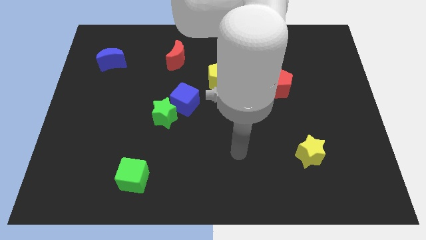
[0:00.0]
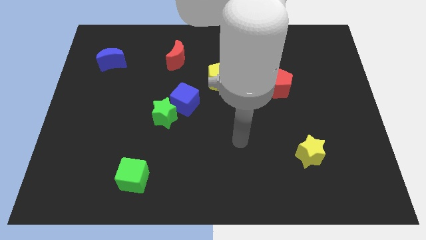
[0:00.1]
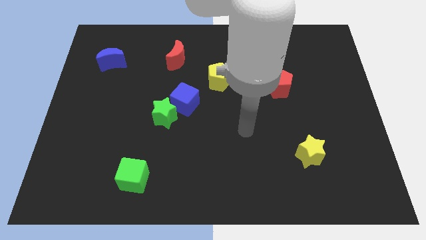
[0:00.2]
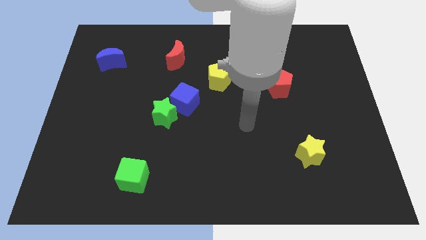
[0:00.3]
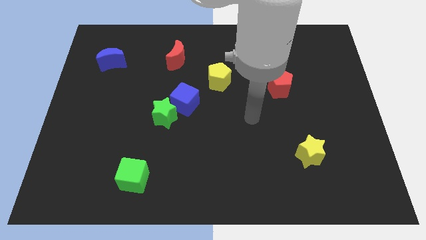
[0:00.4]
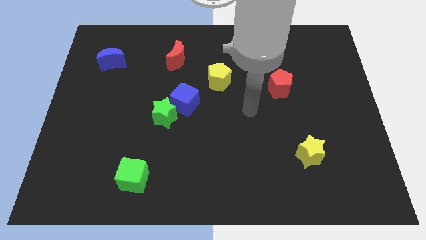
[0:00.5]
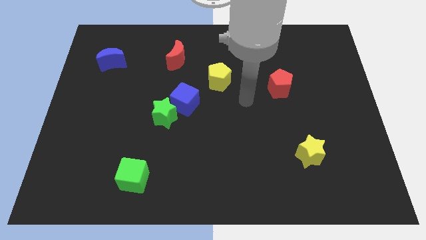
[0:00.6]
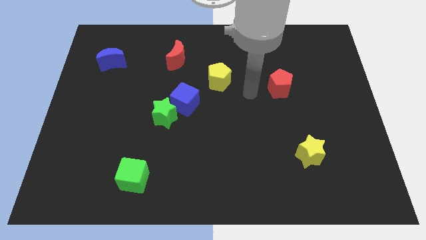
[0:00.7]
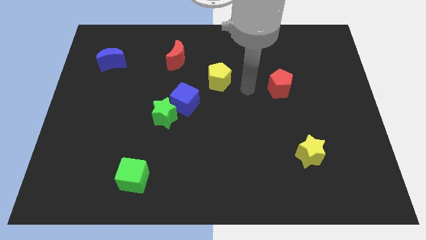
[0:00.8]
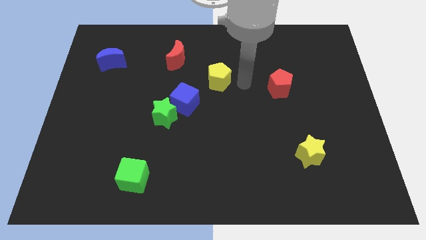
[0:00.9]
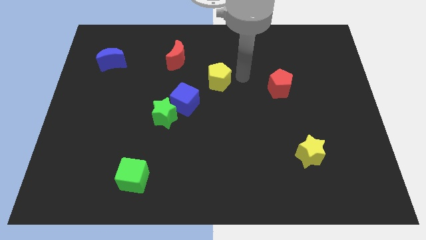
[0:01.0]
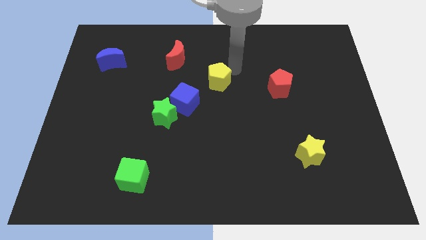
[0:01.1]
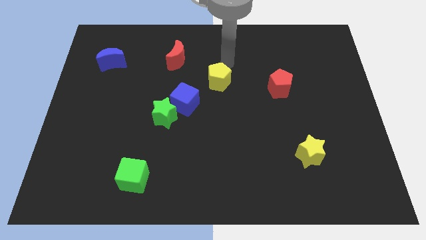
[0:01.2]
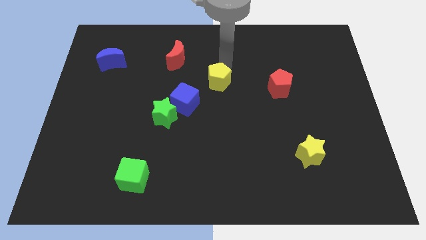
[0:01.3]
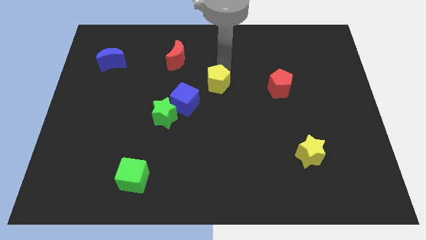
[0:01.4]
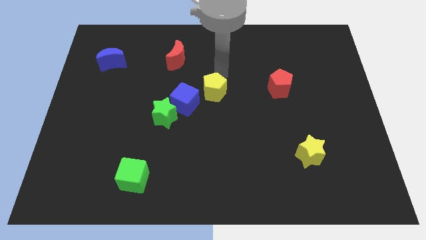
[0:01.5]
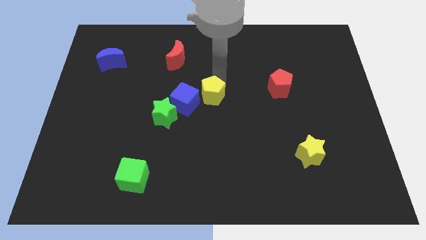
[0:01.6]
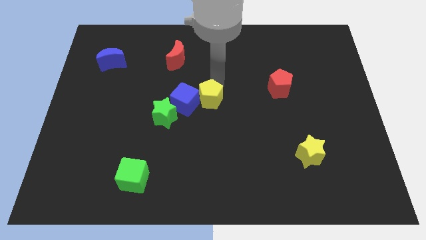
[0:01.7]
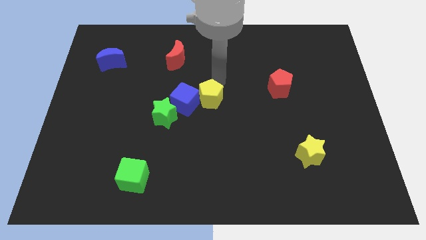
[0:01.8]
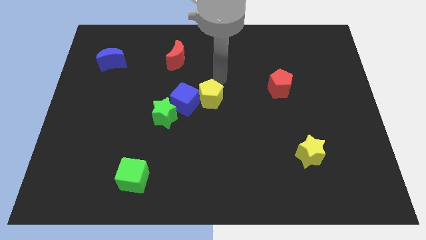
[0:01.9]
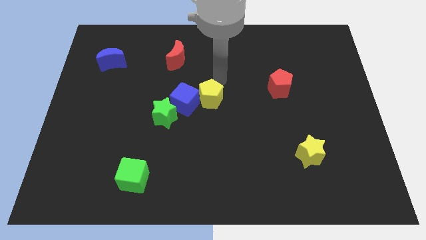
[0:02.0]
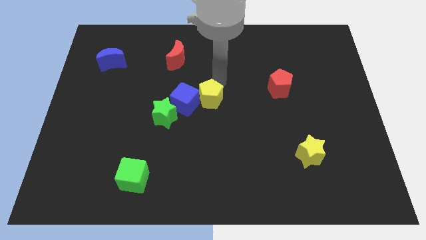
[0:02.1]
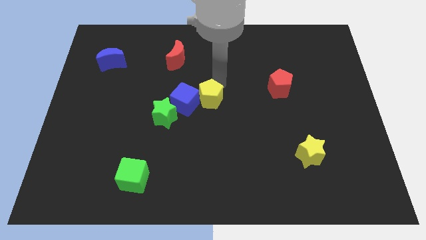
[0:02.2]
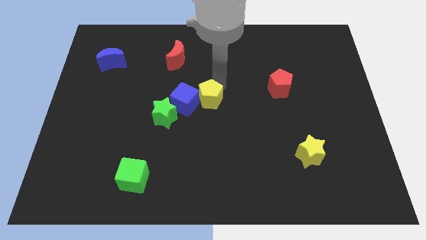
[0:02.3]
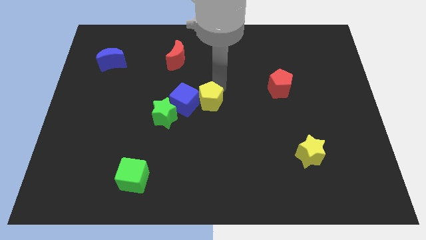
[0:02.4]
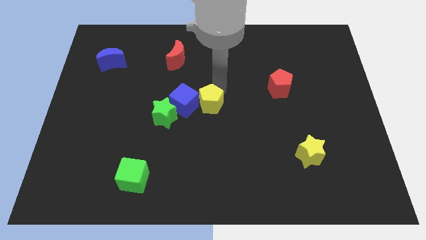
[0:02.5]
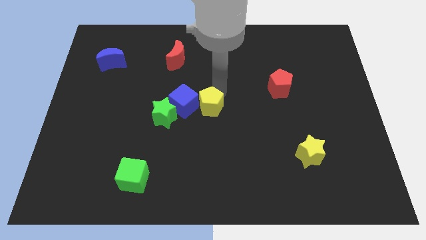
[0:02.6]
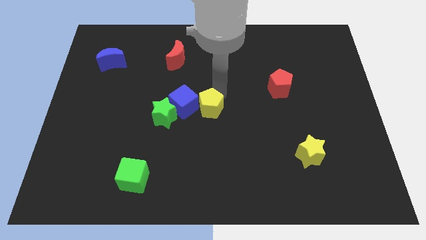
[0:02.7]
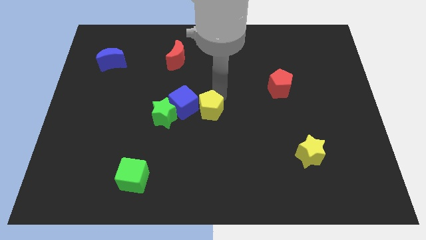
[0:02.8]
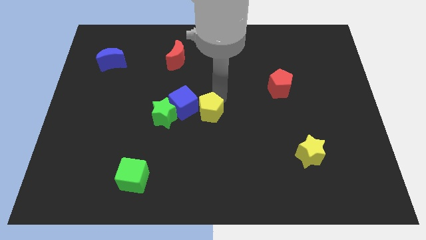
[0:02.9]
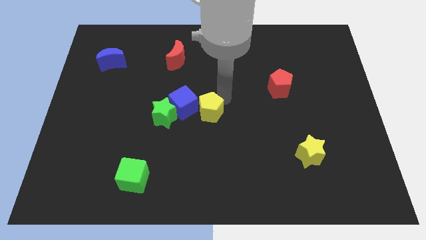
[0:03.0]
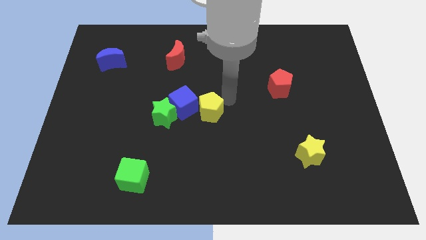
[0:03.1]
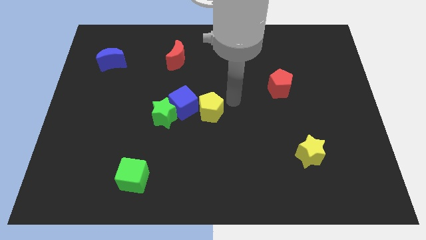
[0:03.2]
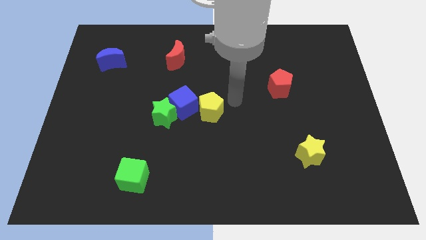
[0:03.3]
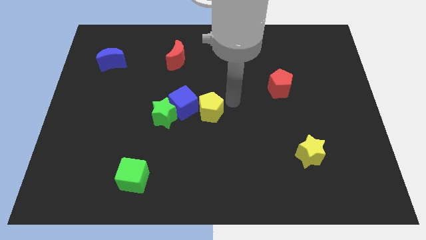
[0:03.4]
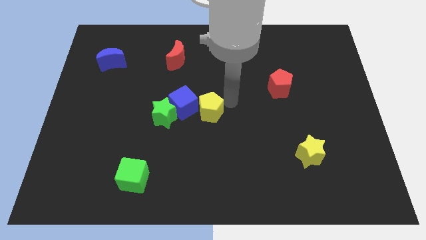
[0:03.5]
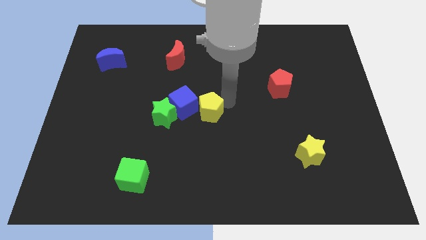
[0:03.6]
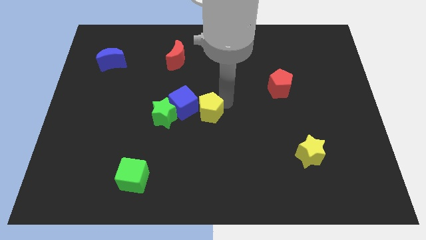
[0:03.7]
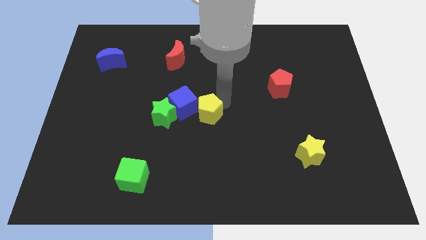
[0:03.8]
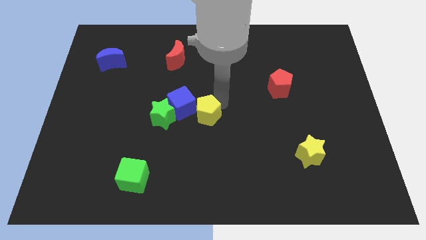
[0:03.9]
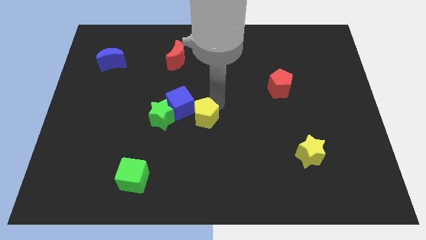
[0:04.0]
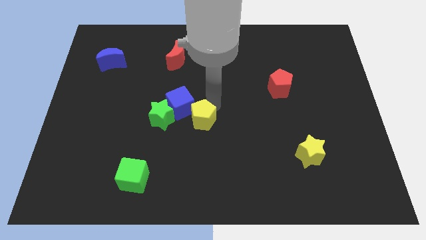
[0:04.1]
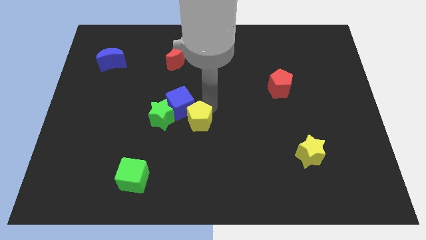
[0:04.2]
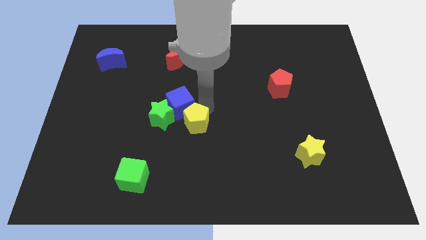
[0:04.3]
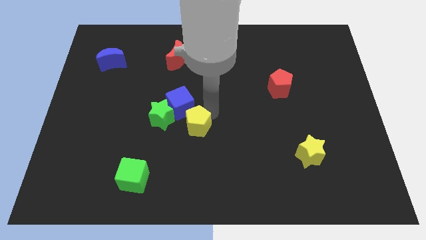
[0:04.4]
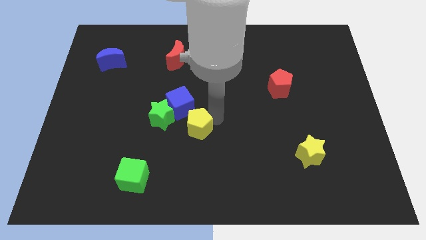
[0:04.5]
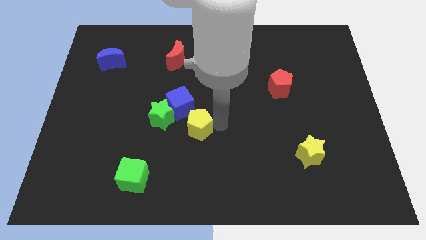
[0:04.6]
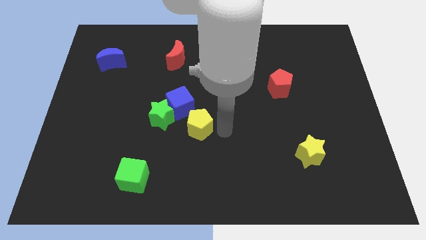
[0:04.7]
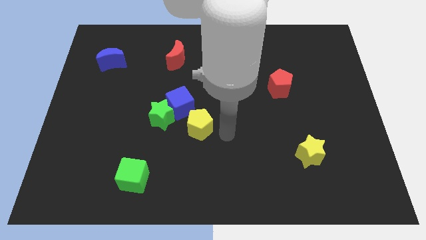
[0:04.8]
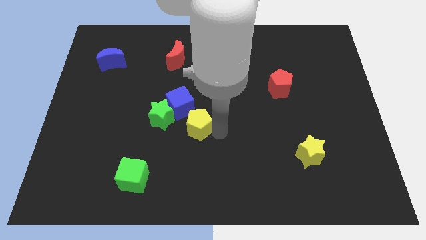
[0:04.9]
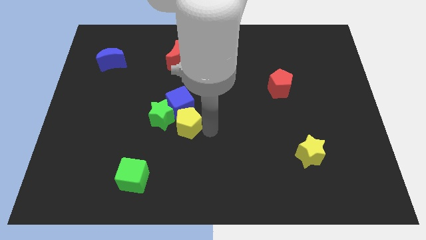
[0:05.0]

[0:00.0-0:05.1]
put the yellow pentagon close to the green star

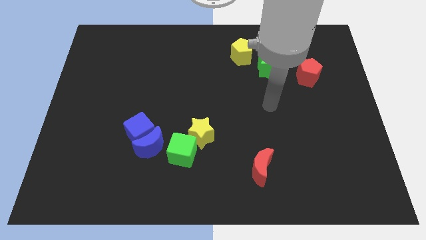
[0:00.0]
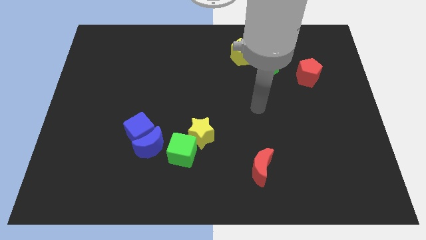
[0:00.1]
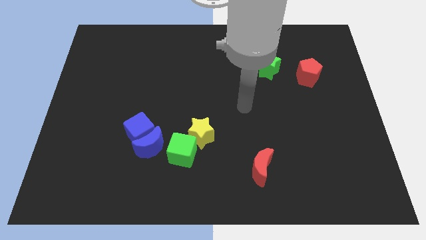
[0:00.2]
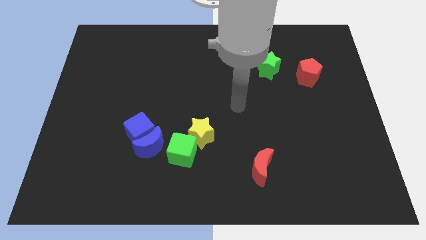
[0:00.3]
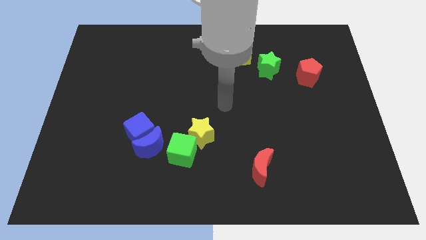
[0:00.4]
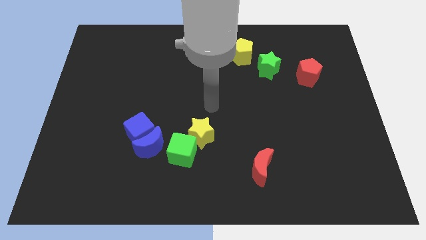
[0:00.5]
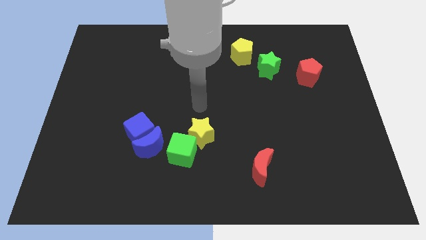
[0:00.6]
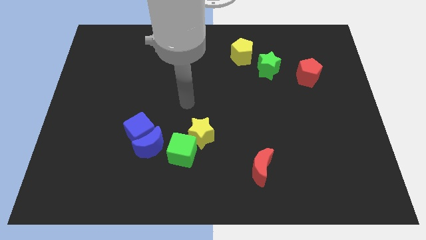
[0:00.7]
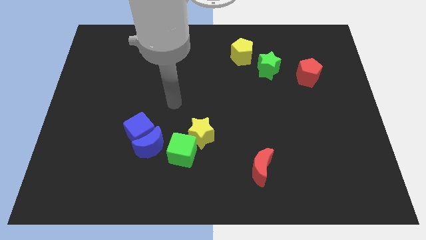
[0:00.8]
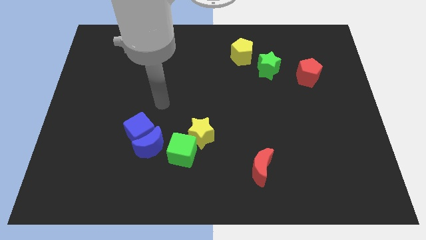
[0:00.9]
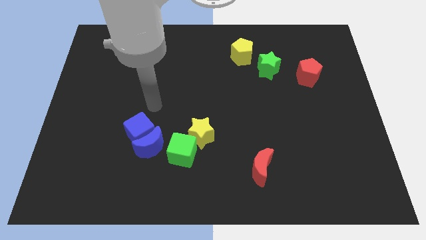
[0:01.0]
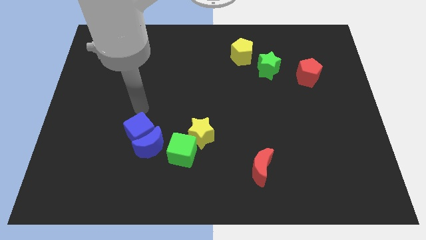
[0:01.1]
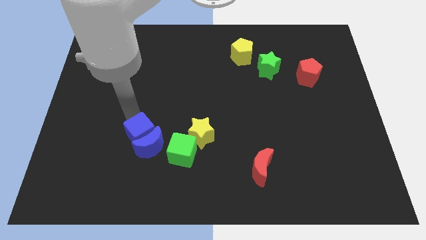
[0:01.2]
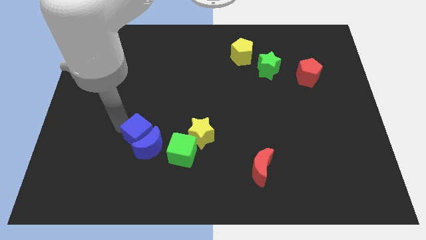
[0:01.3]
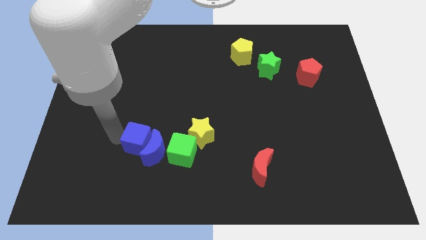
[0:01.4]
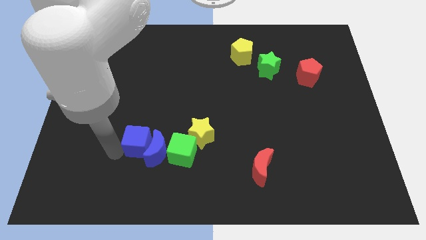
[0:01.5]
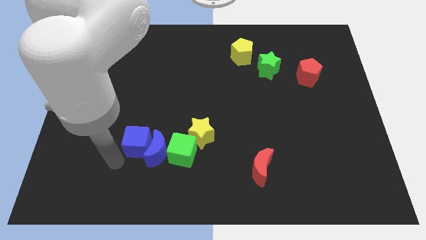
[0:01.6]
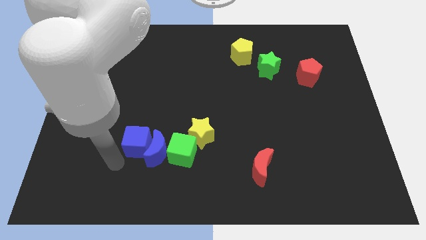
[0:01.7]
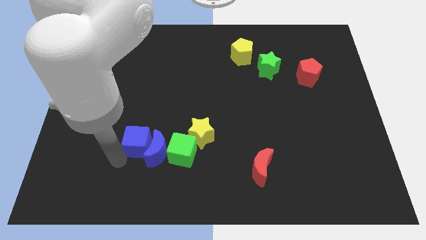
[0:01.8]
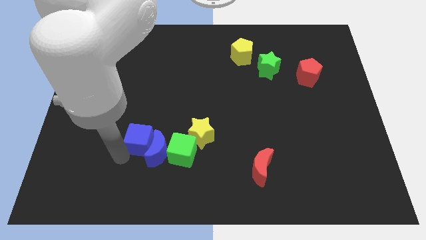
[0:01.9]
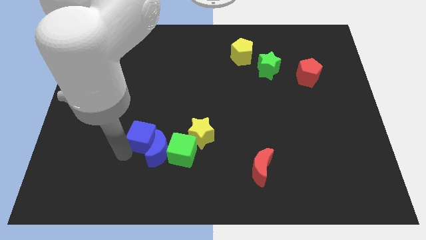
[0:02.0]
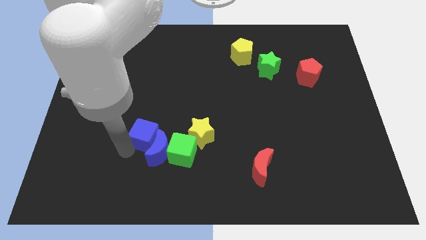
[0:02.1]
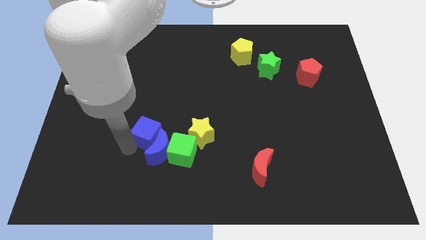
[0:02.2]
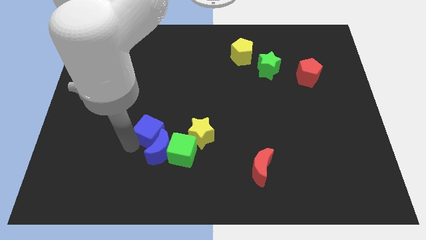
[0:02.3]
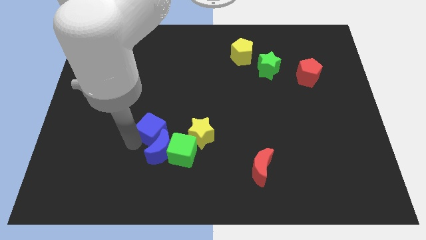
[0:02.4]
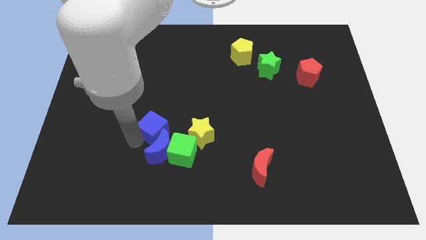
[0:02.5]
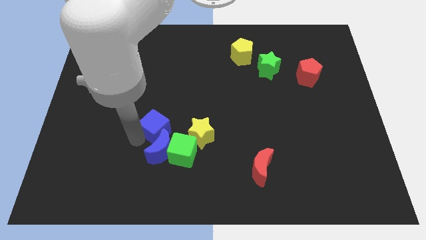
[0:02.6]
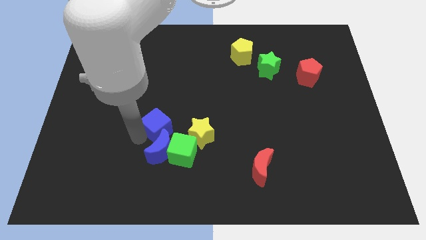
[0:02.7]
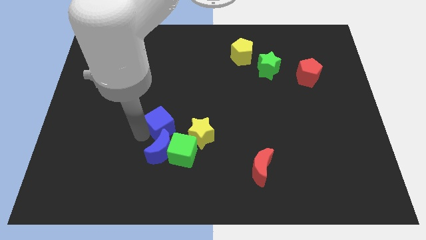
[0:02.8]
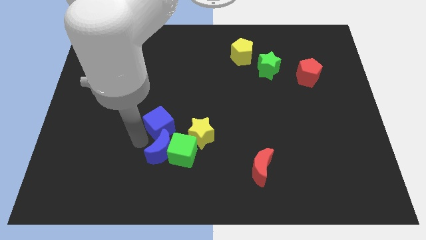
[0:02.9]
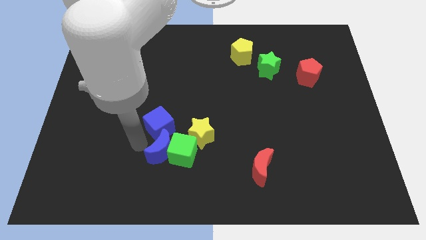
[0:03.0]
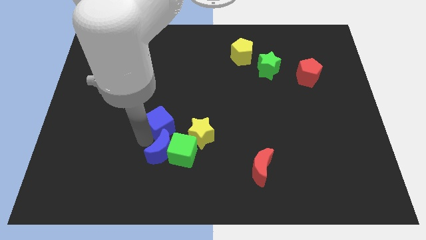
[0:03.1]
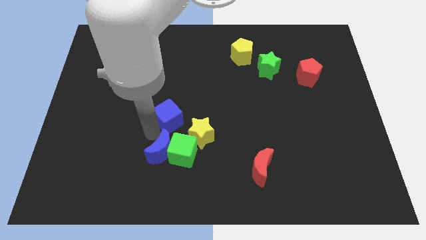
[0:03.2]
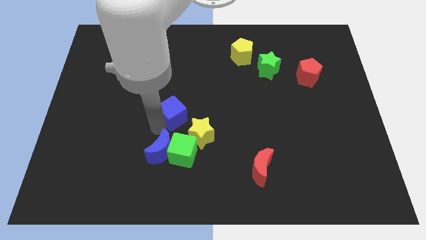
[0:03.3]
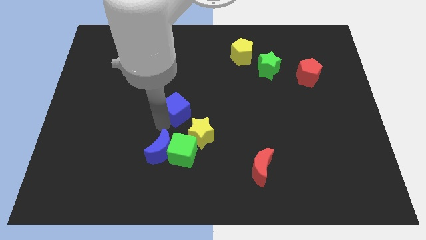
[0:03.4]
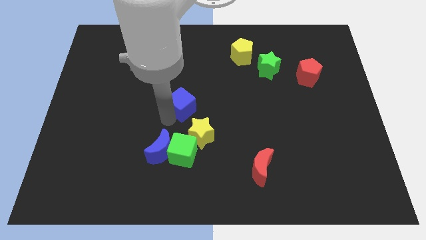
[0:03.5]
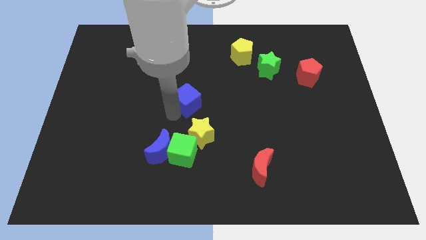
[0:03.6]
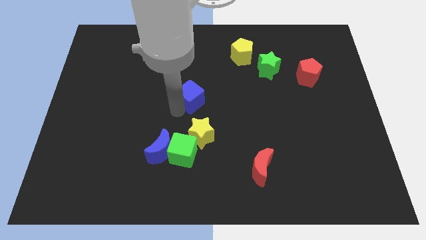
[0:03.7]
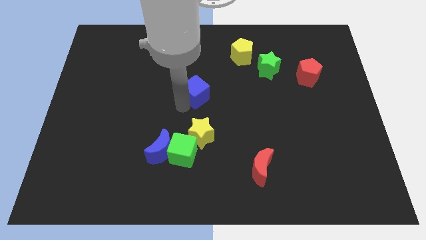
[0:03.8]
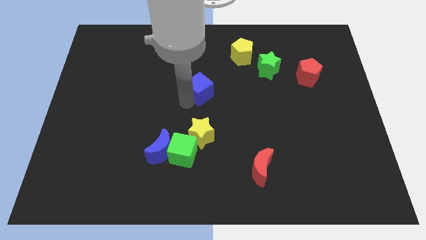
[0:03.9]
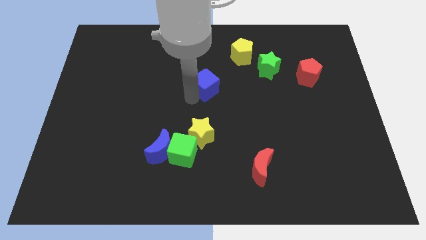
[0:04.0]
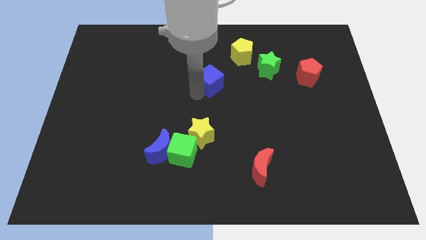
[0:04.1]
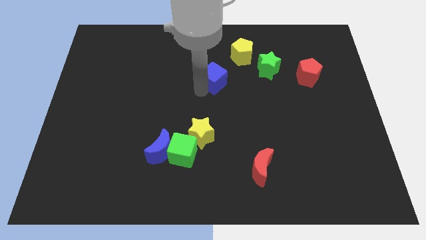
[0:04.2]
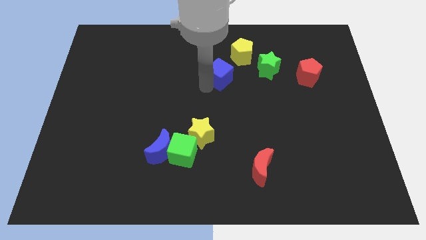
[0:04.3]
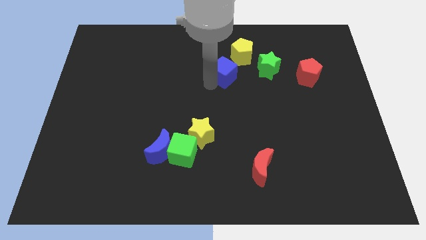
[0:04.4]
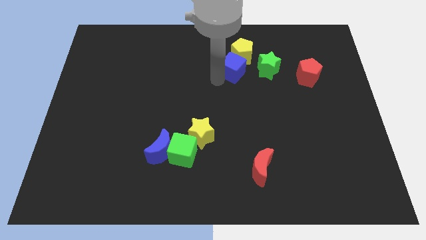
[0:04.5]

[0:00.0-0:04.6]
move the blue cube next to the yellow pentagon
